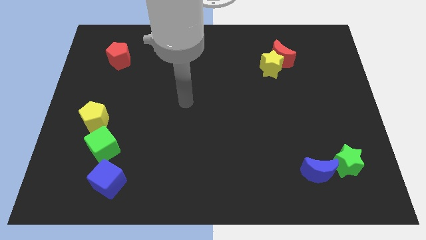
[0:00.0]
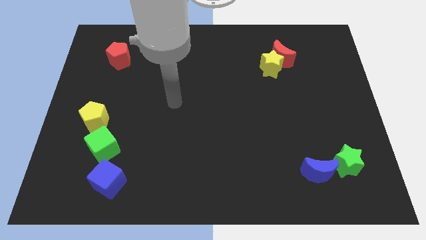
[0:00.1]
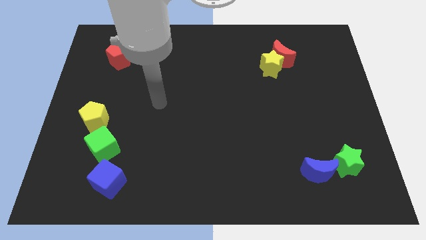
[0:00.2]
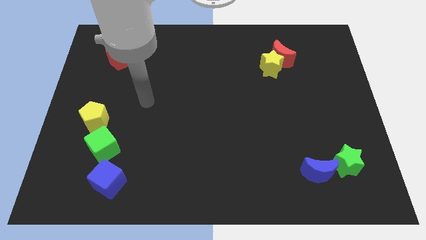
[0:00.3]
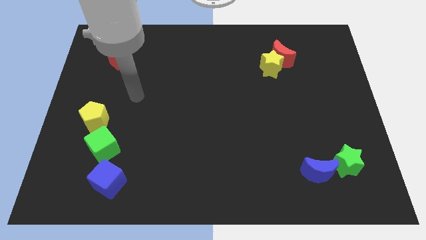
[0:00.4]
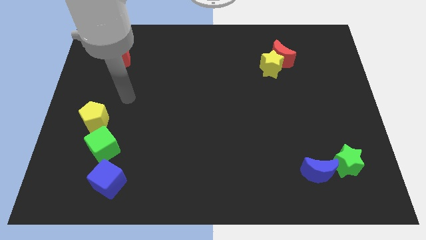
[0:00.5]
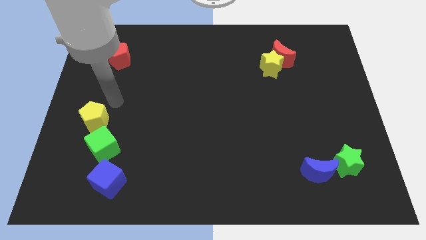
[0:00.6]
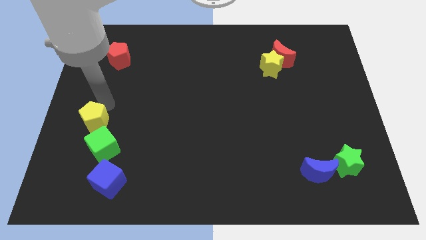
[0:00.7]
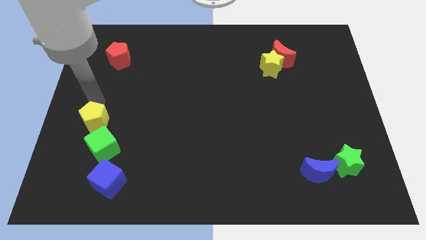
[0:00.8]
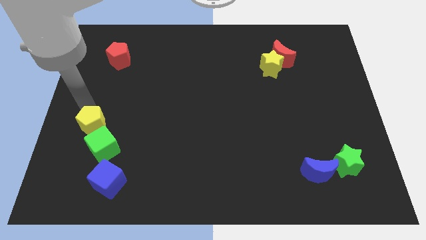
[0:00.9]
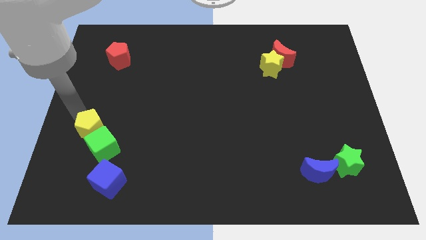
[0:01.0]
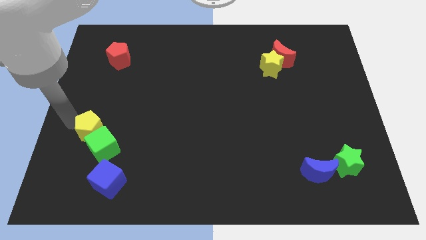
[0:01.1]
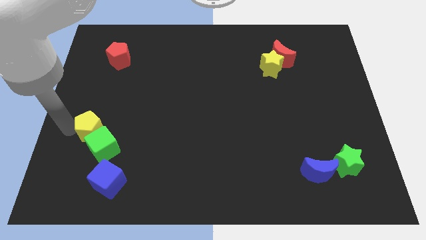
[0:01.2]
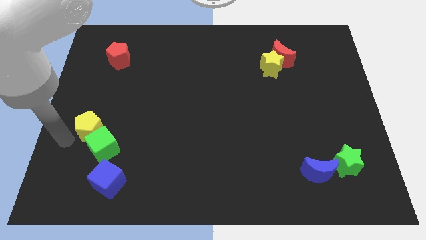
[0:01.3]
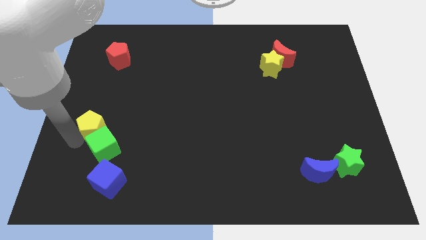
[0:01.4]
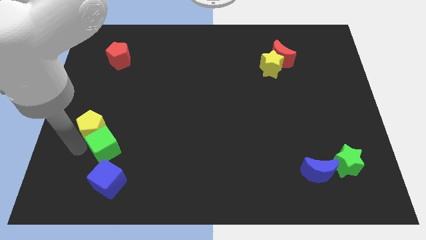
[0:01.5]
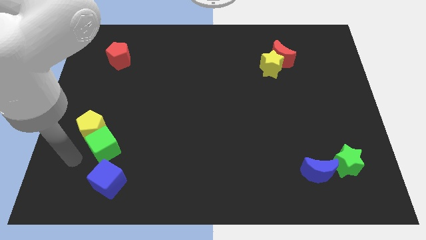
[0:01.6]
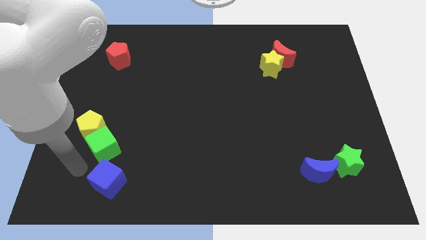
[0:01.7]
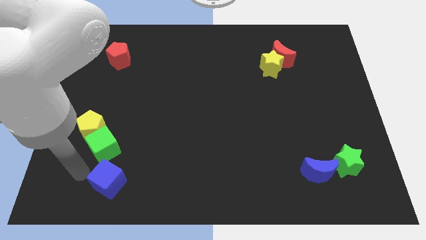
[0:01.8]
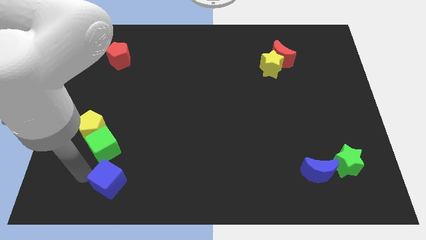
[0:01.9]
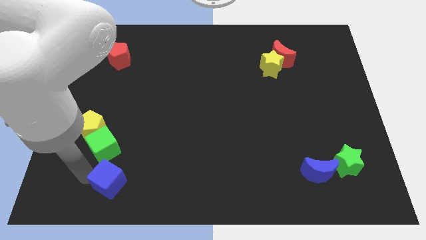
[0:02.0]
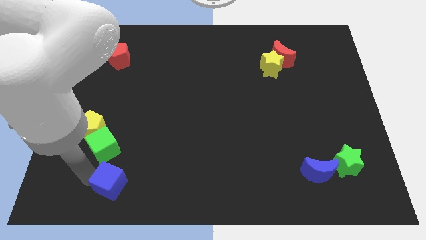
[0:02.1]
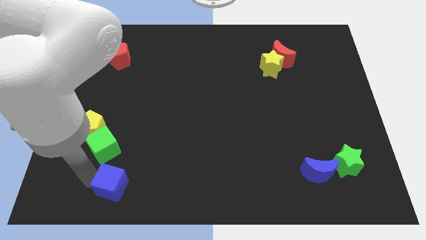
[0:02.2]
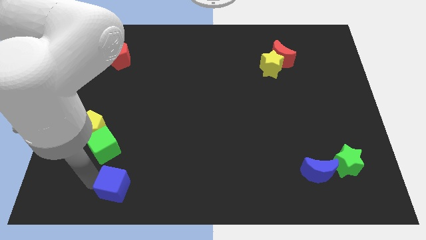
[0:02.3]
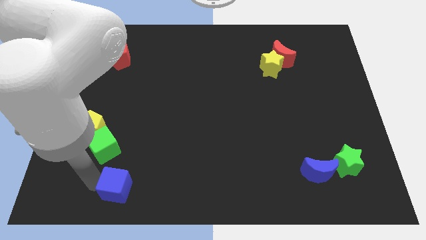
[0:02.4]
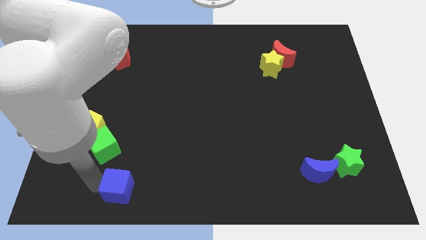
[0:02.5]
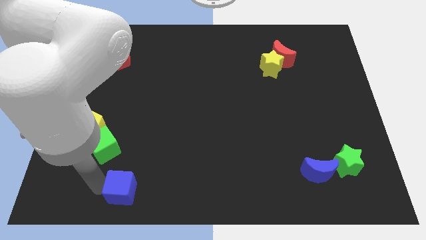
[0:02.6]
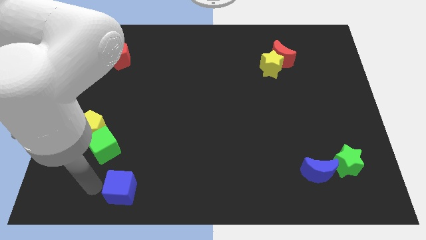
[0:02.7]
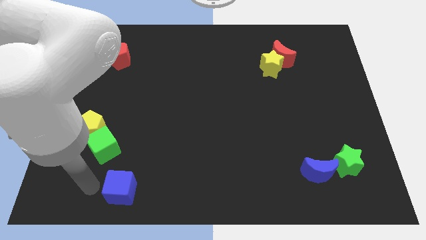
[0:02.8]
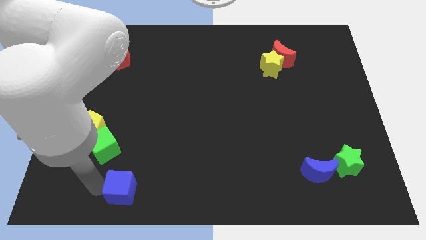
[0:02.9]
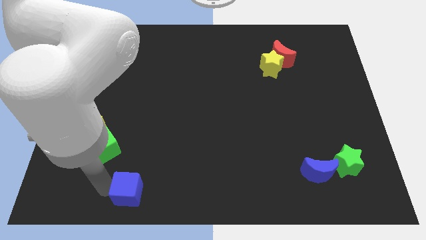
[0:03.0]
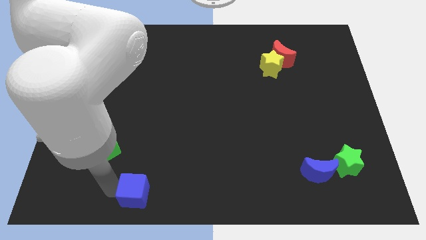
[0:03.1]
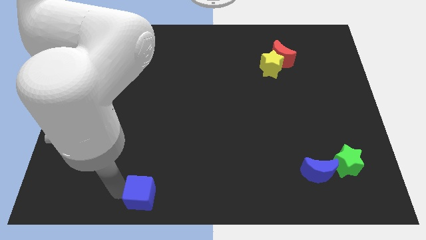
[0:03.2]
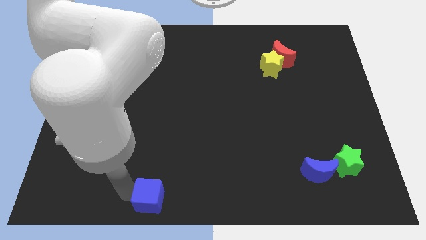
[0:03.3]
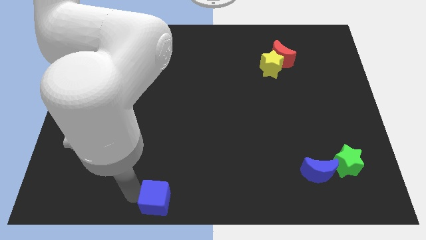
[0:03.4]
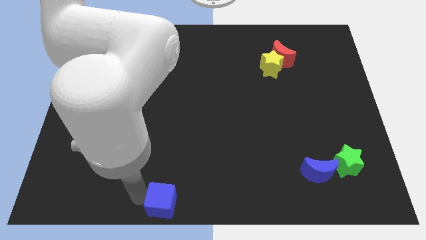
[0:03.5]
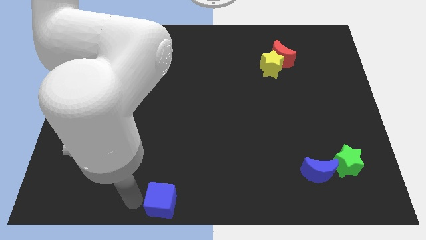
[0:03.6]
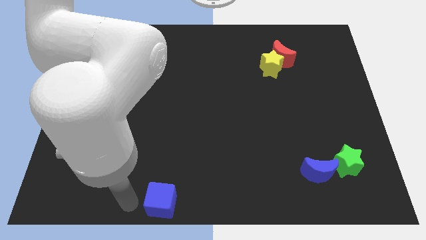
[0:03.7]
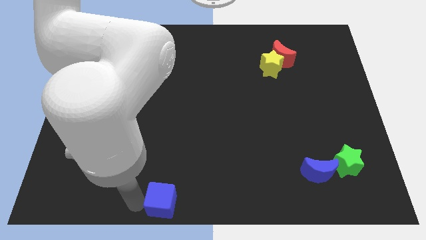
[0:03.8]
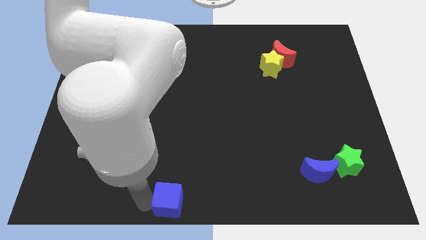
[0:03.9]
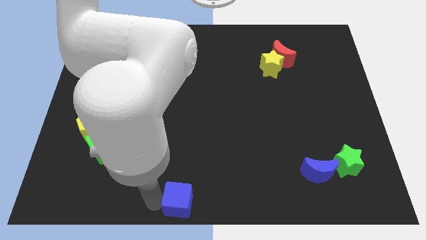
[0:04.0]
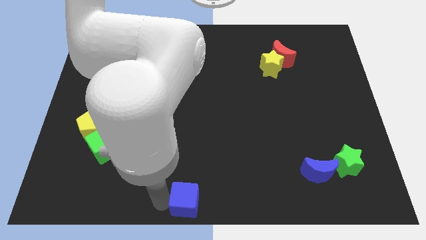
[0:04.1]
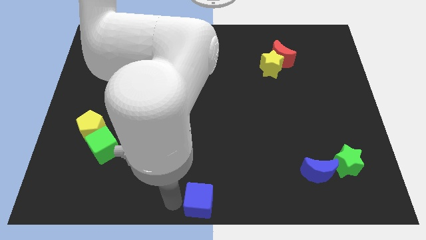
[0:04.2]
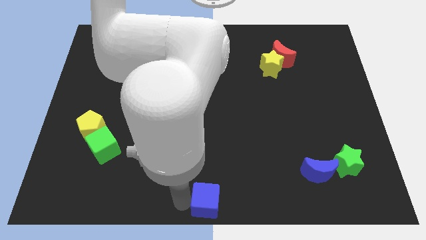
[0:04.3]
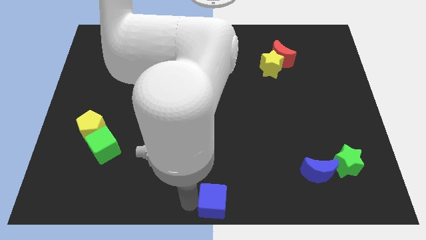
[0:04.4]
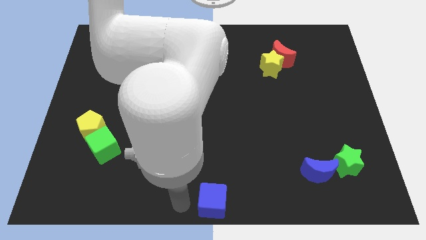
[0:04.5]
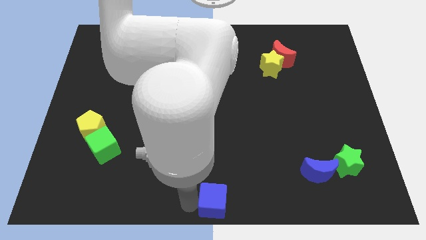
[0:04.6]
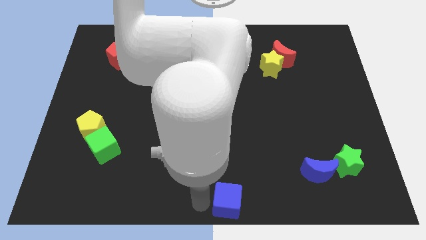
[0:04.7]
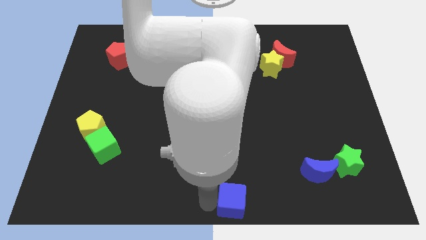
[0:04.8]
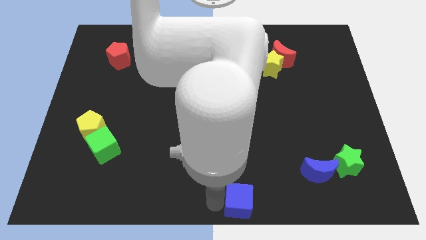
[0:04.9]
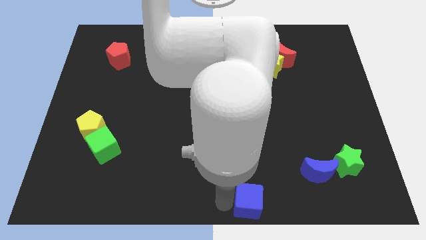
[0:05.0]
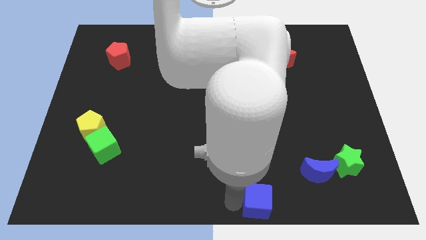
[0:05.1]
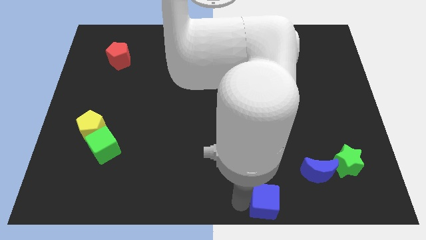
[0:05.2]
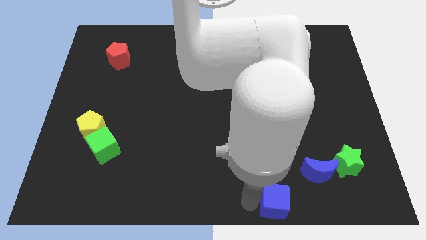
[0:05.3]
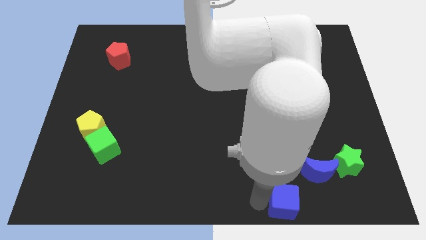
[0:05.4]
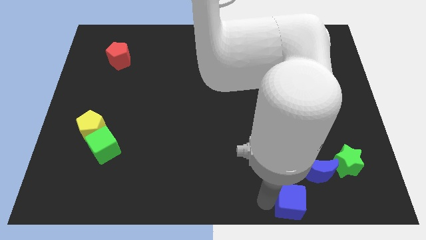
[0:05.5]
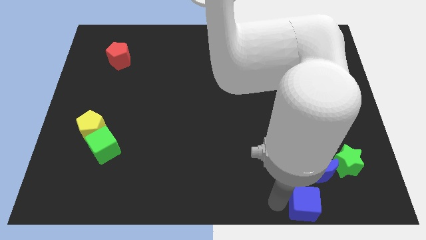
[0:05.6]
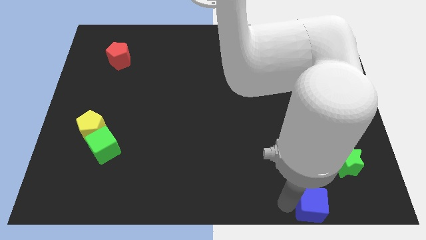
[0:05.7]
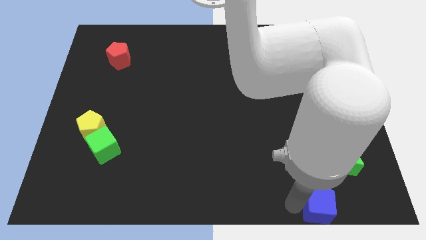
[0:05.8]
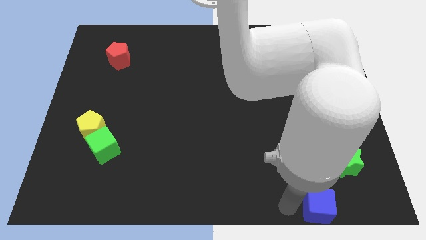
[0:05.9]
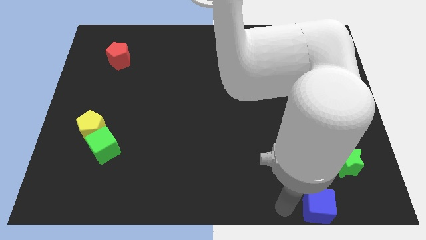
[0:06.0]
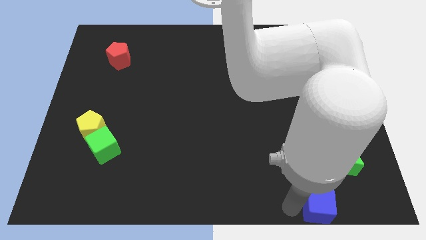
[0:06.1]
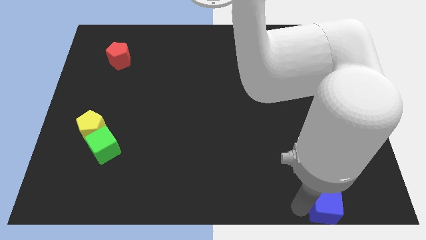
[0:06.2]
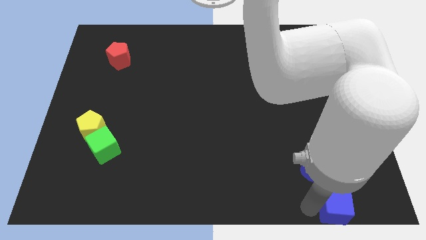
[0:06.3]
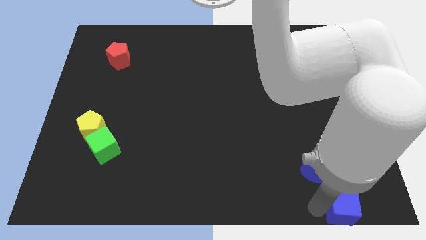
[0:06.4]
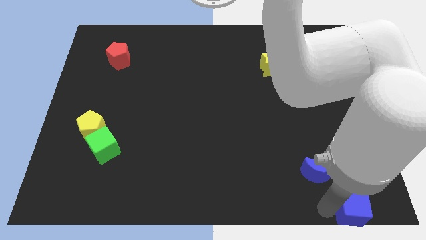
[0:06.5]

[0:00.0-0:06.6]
slide the blue cube to the bottom right of the board
